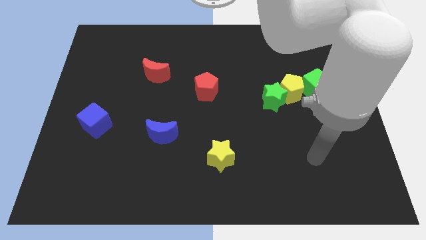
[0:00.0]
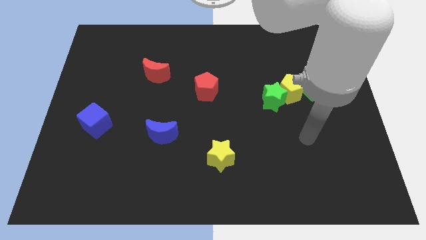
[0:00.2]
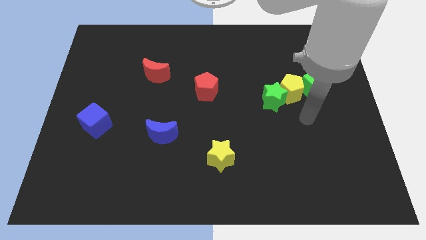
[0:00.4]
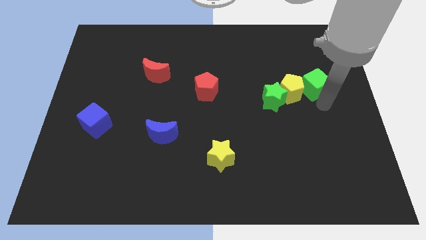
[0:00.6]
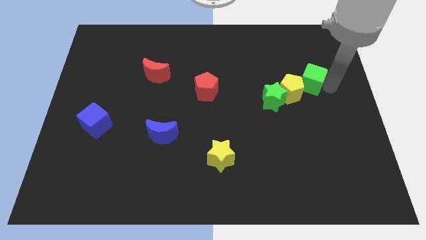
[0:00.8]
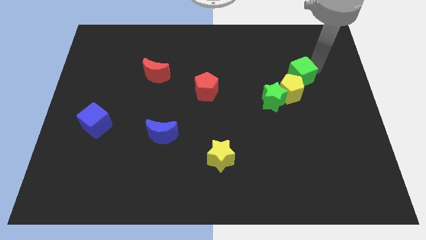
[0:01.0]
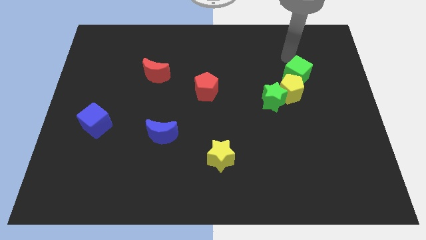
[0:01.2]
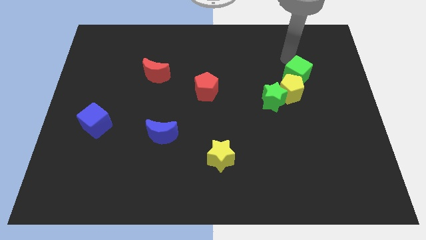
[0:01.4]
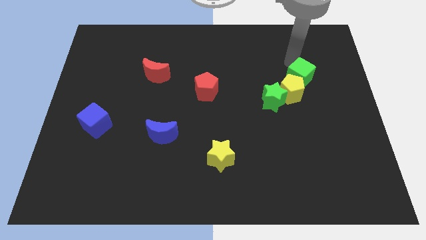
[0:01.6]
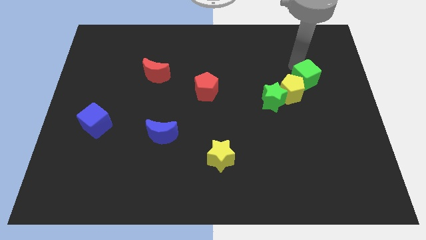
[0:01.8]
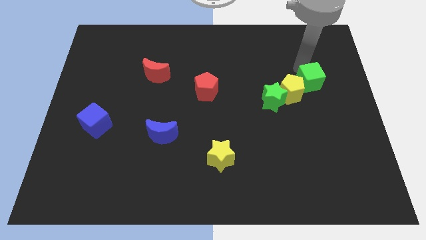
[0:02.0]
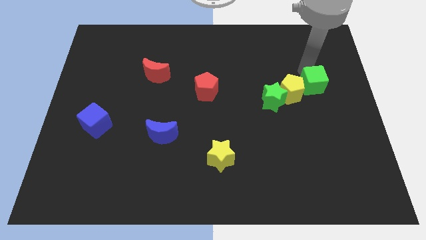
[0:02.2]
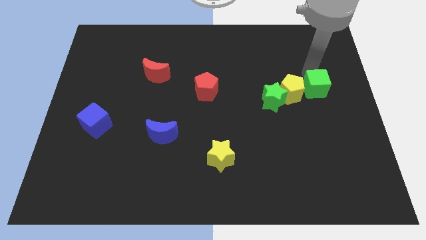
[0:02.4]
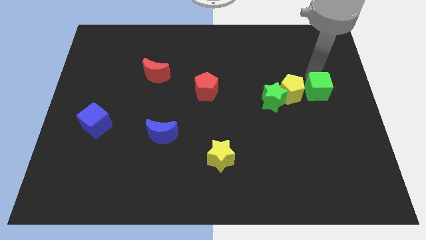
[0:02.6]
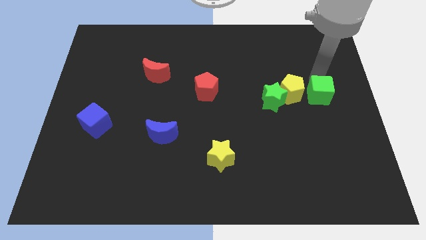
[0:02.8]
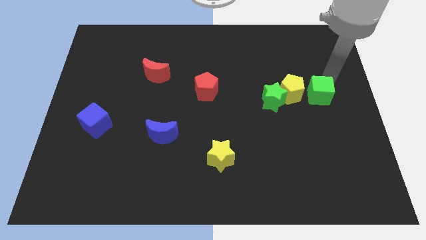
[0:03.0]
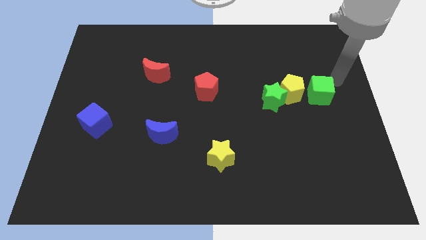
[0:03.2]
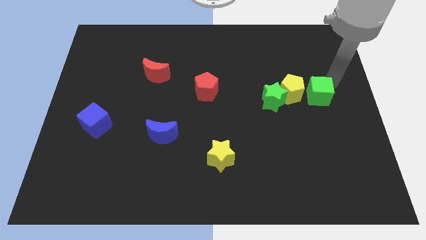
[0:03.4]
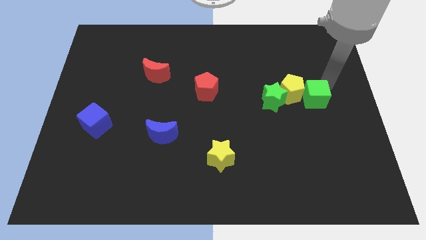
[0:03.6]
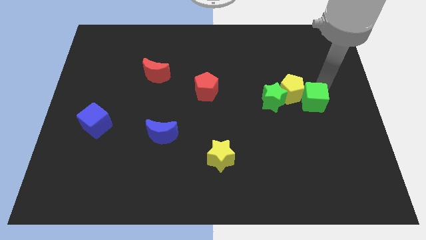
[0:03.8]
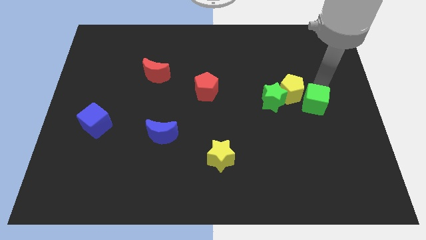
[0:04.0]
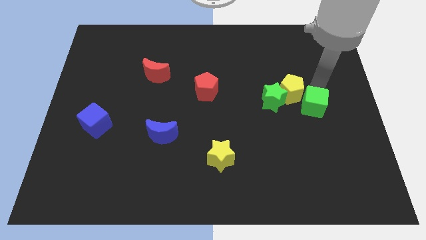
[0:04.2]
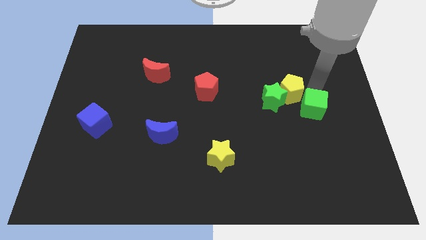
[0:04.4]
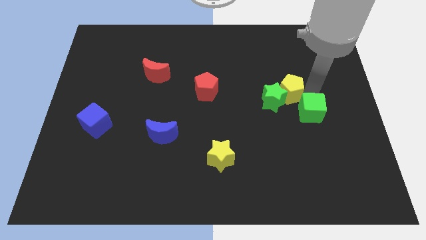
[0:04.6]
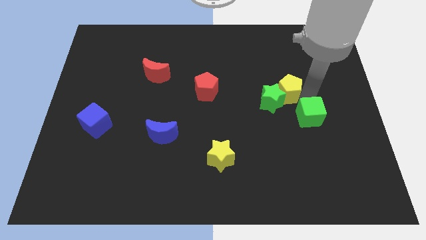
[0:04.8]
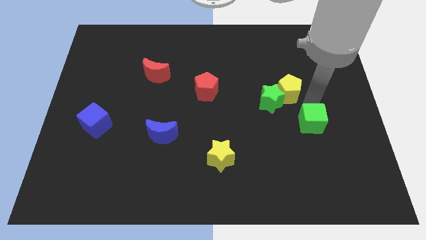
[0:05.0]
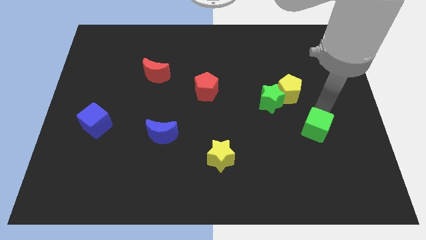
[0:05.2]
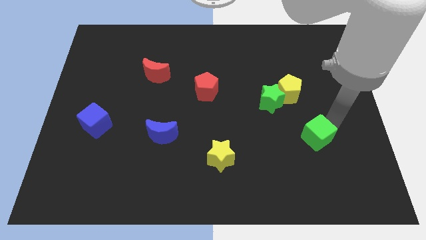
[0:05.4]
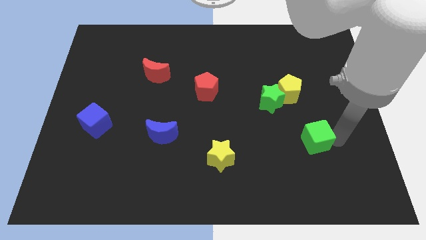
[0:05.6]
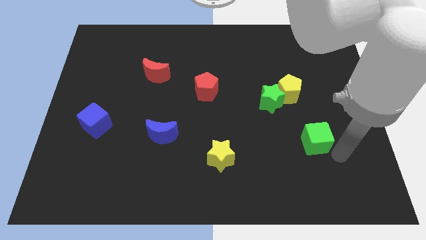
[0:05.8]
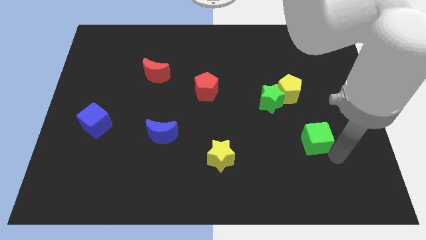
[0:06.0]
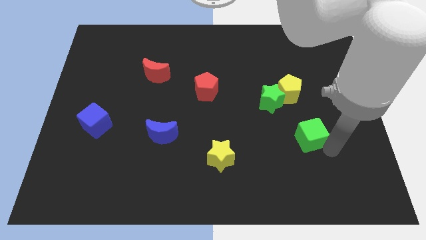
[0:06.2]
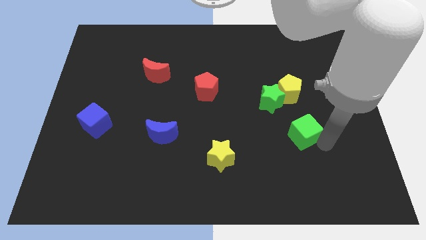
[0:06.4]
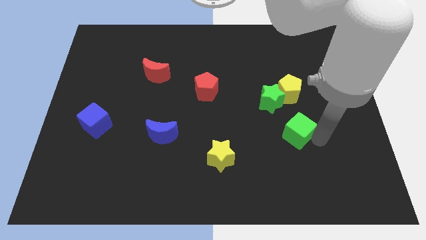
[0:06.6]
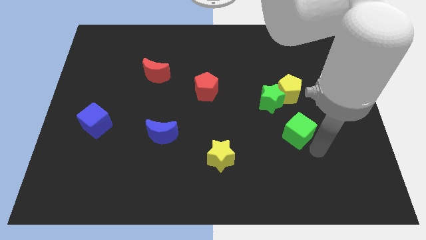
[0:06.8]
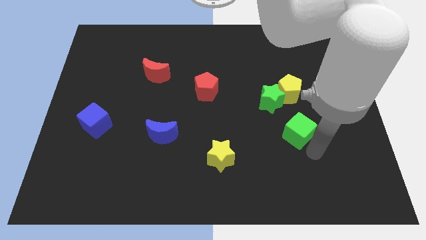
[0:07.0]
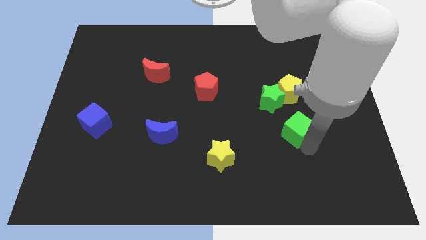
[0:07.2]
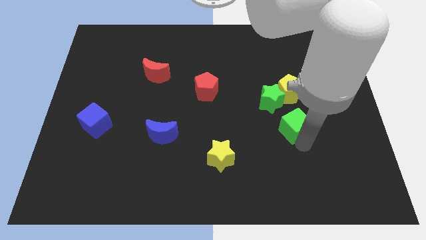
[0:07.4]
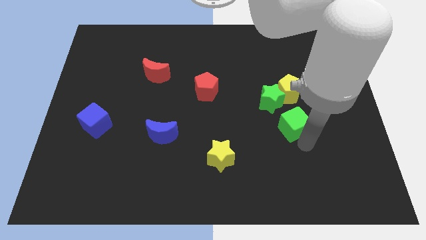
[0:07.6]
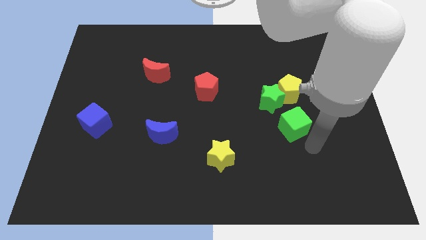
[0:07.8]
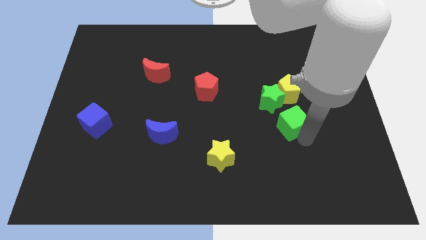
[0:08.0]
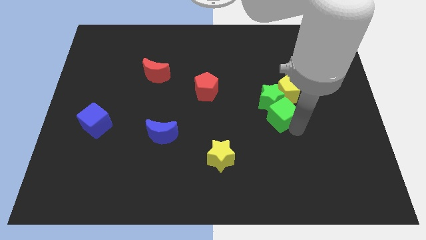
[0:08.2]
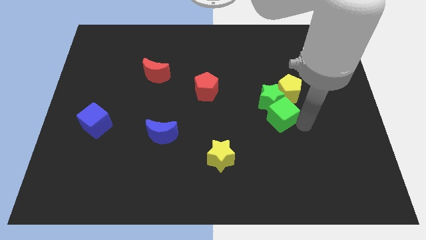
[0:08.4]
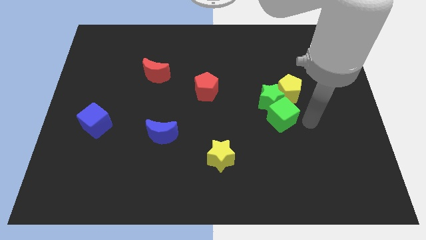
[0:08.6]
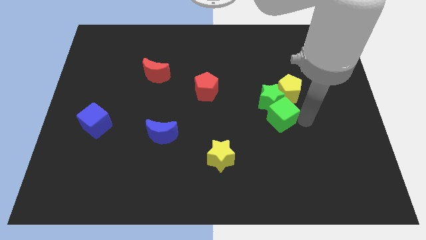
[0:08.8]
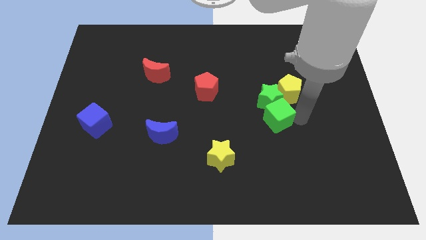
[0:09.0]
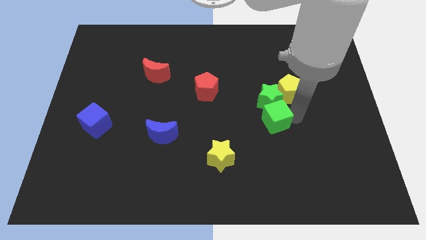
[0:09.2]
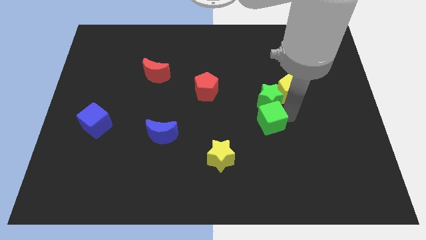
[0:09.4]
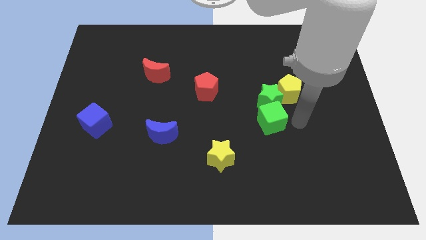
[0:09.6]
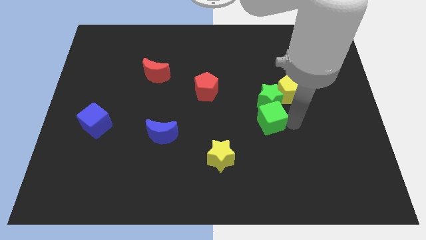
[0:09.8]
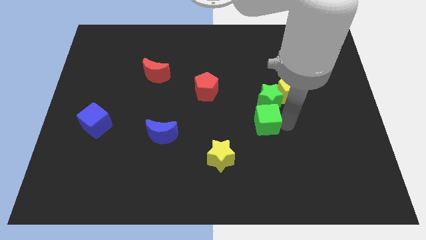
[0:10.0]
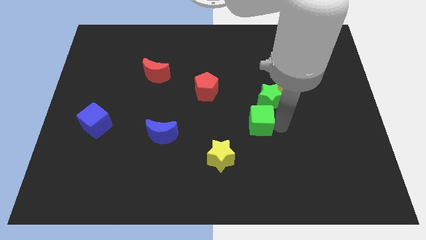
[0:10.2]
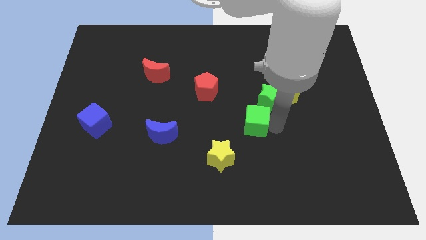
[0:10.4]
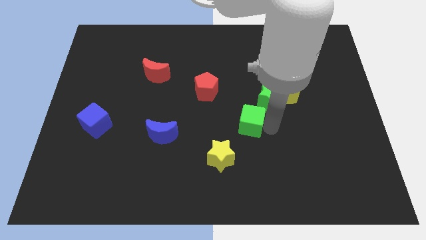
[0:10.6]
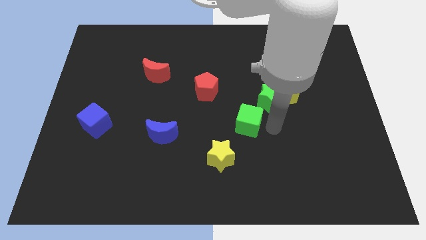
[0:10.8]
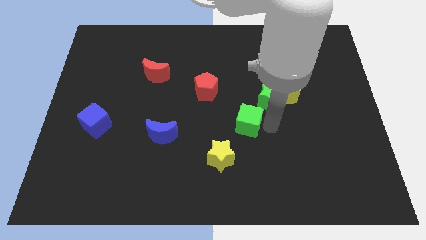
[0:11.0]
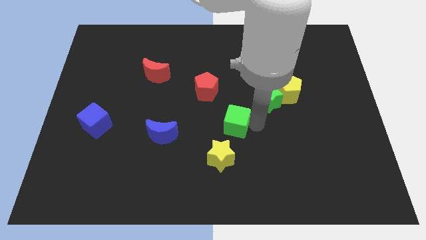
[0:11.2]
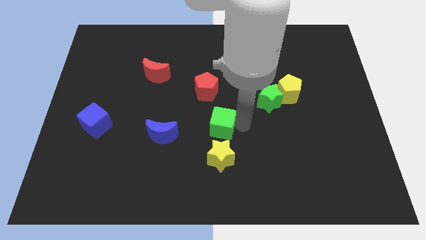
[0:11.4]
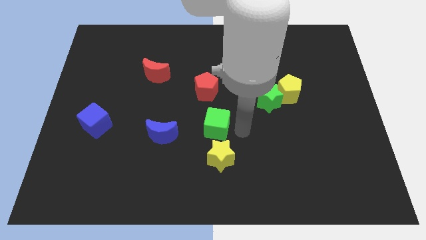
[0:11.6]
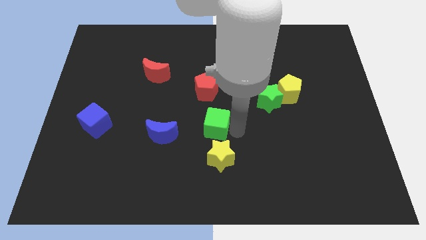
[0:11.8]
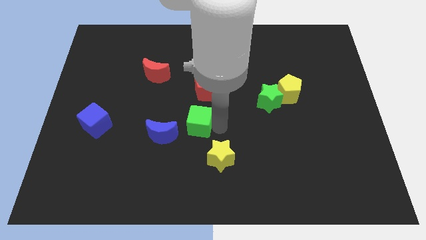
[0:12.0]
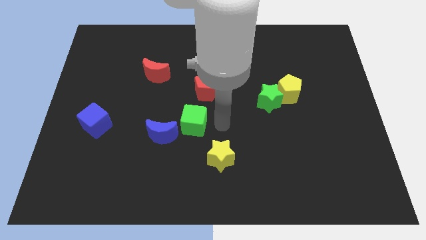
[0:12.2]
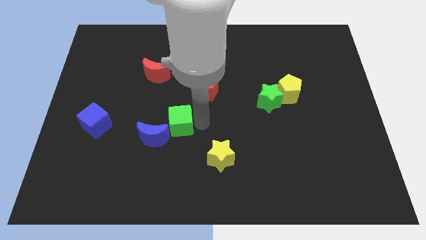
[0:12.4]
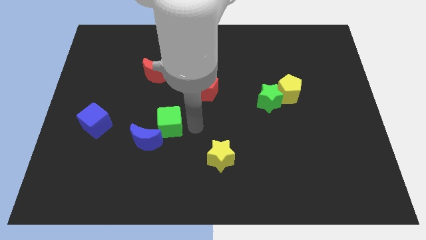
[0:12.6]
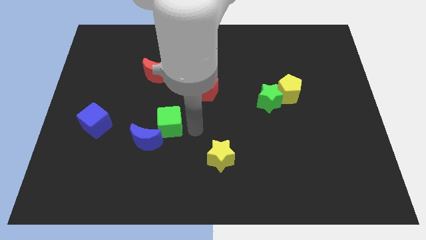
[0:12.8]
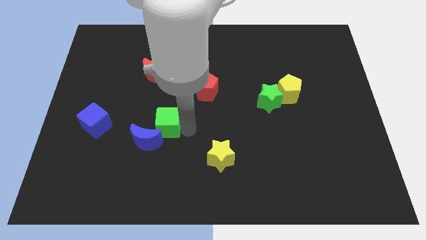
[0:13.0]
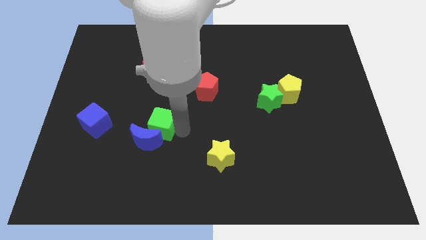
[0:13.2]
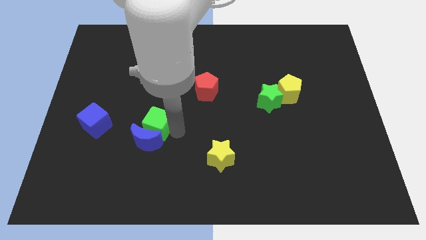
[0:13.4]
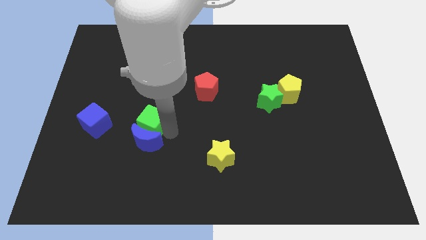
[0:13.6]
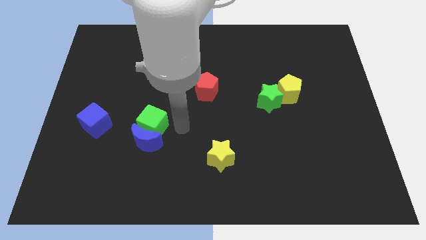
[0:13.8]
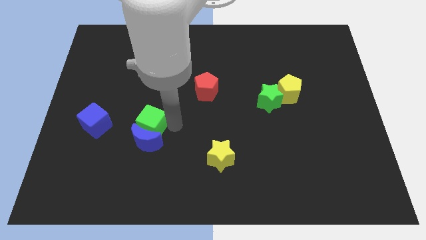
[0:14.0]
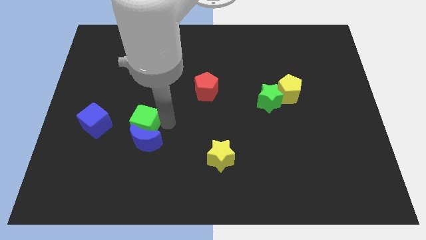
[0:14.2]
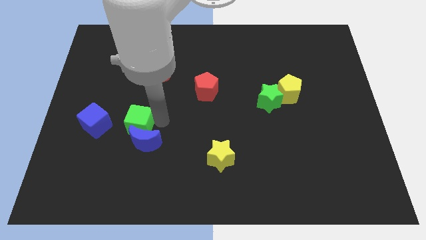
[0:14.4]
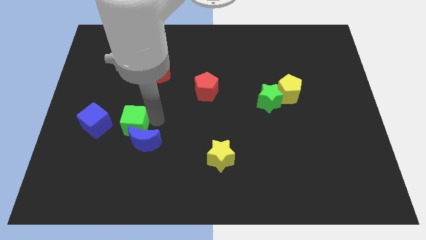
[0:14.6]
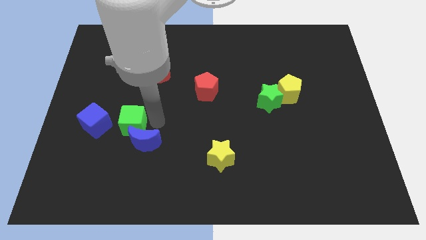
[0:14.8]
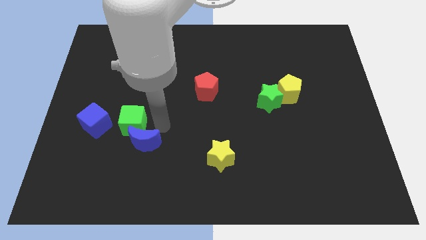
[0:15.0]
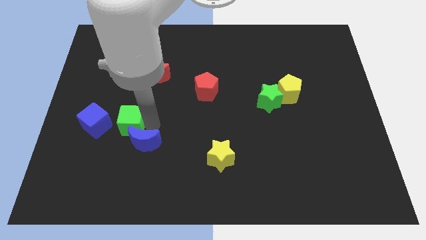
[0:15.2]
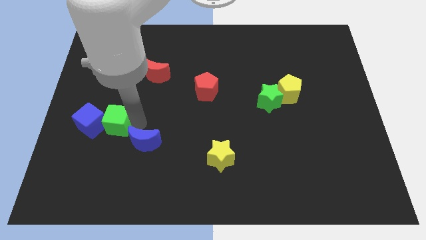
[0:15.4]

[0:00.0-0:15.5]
move the green cube close to the blue cube
